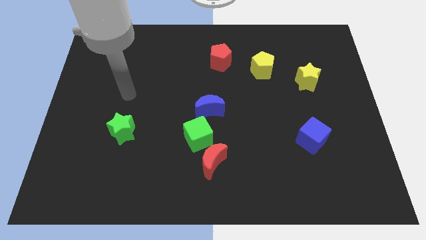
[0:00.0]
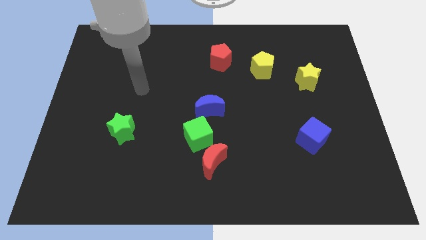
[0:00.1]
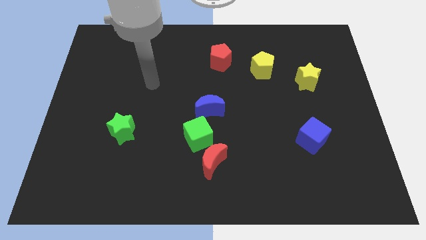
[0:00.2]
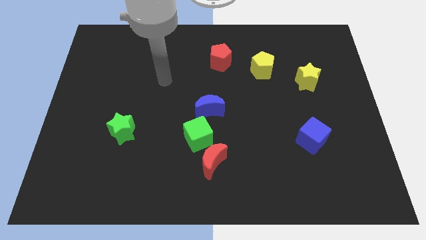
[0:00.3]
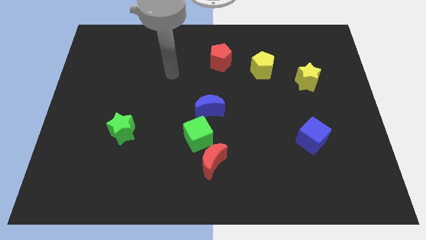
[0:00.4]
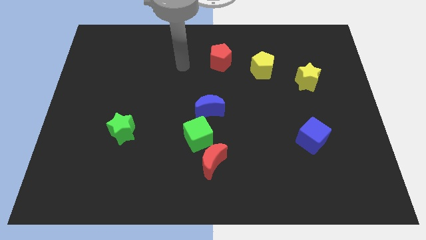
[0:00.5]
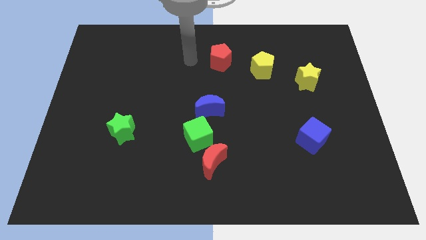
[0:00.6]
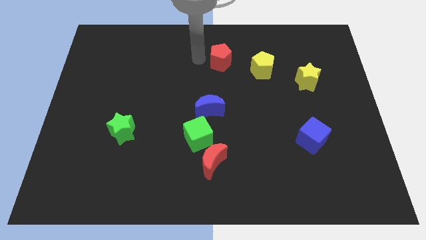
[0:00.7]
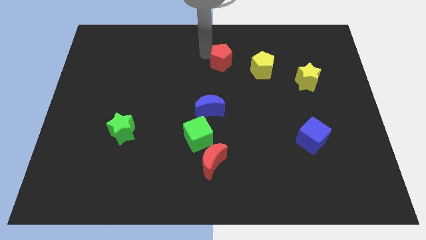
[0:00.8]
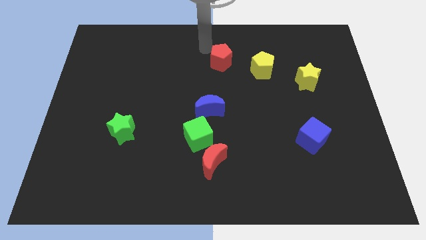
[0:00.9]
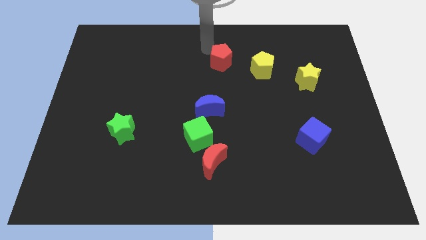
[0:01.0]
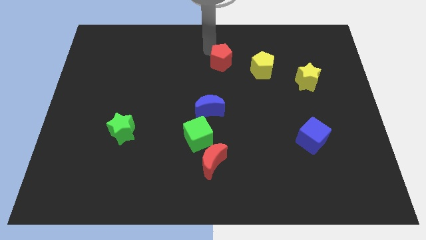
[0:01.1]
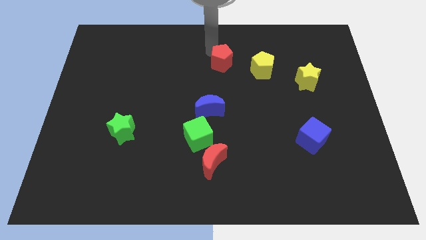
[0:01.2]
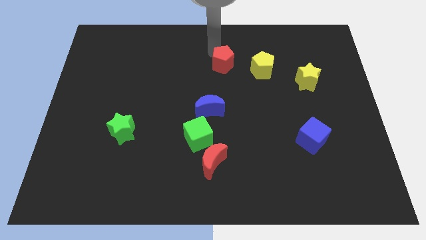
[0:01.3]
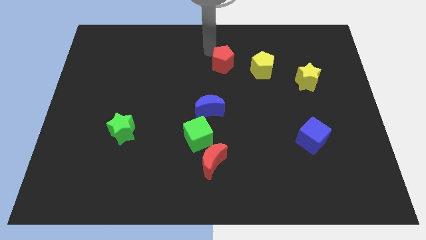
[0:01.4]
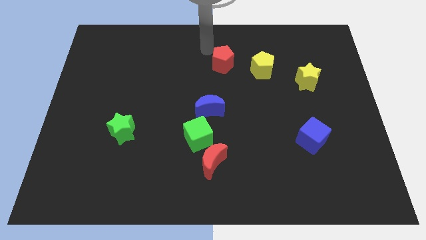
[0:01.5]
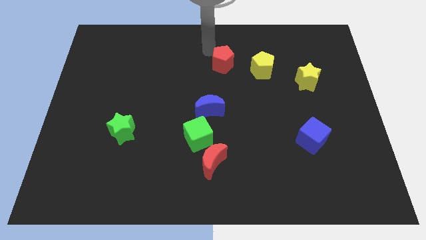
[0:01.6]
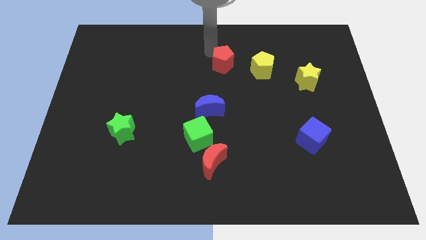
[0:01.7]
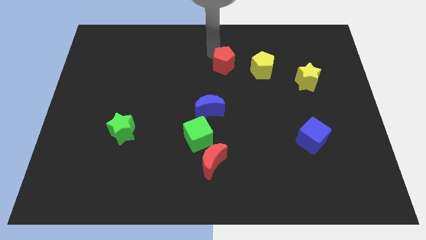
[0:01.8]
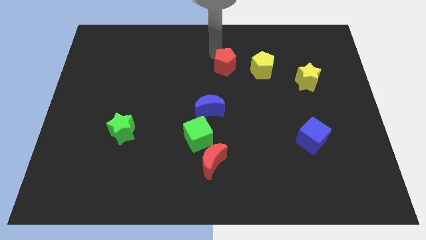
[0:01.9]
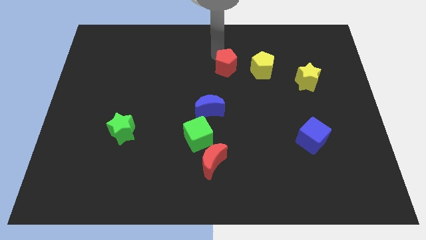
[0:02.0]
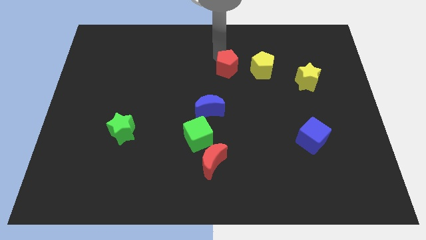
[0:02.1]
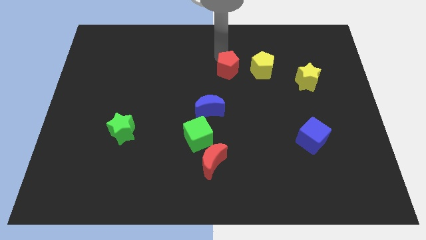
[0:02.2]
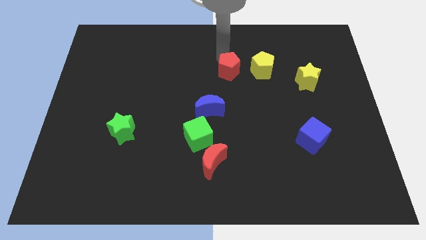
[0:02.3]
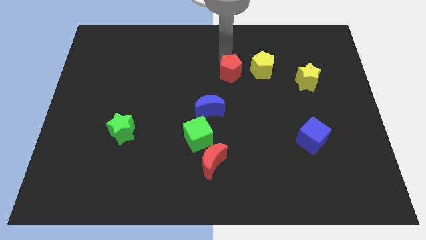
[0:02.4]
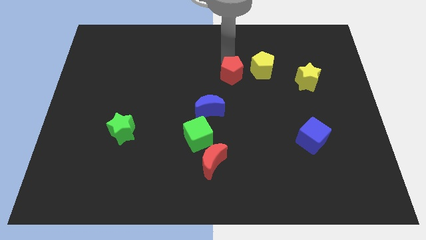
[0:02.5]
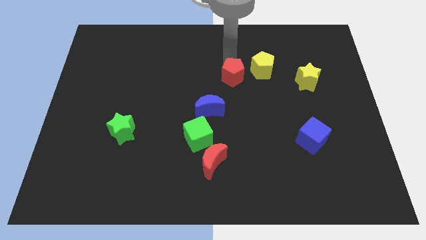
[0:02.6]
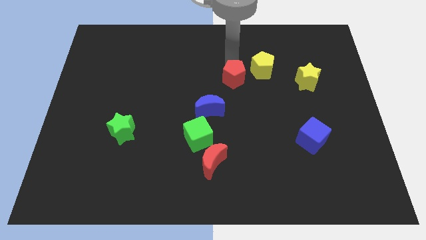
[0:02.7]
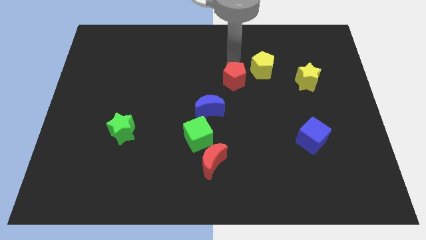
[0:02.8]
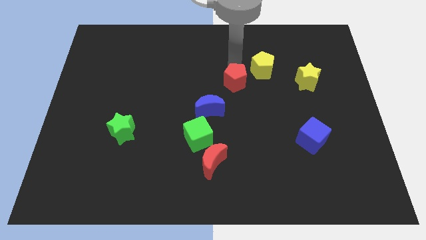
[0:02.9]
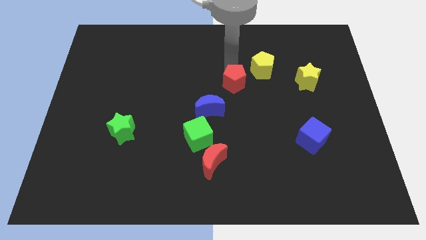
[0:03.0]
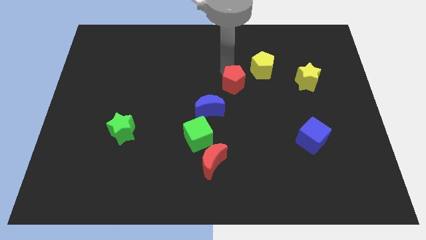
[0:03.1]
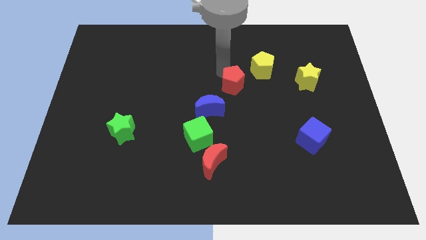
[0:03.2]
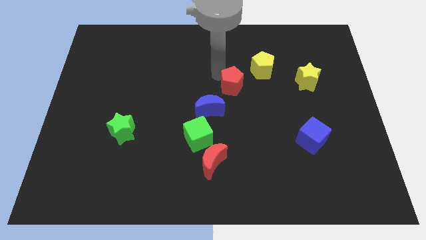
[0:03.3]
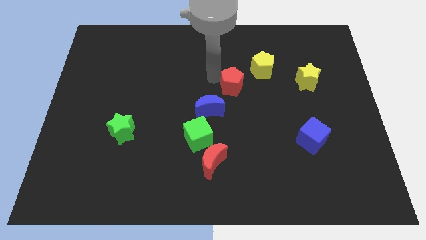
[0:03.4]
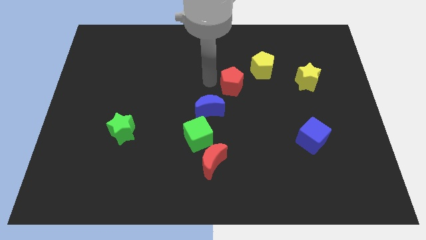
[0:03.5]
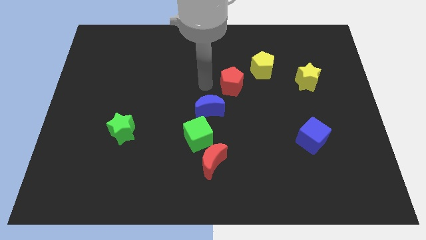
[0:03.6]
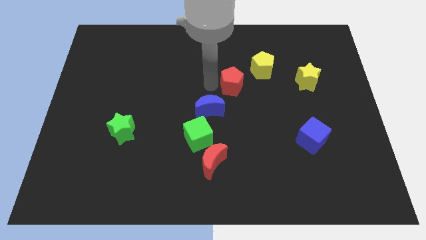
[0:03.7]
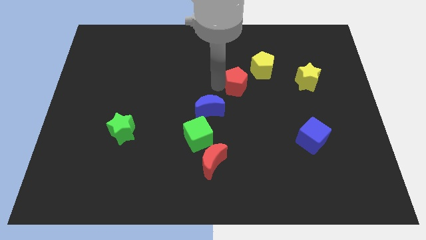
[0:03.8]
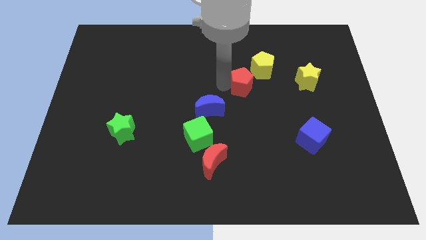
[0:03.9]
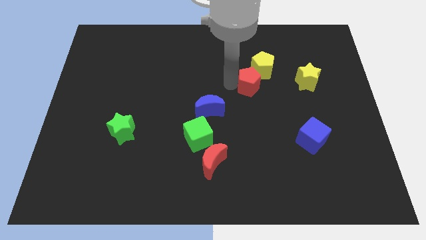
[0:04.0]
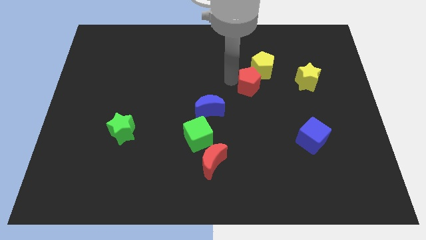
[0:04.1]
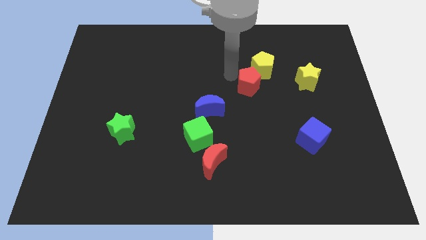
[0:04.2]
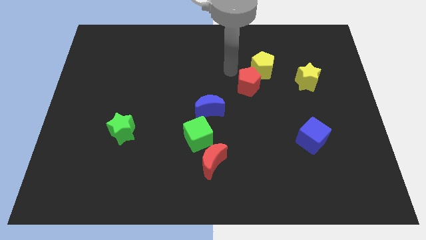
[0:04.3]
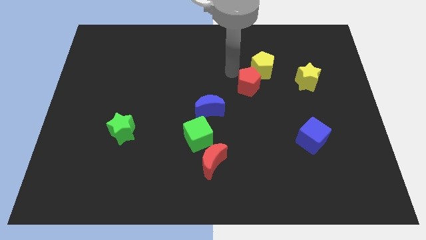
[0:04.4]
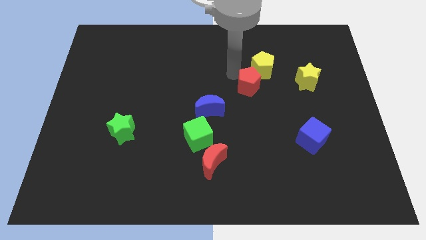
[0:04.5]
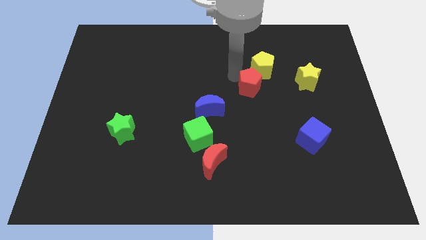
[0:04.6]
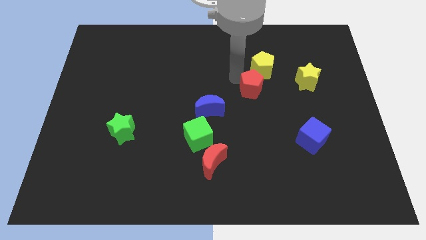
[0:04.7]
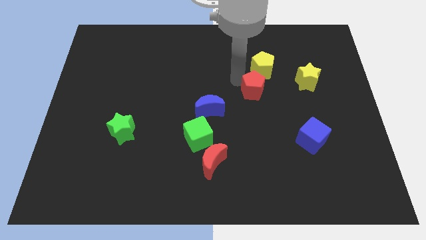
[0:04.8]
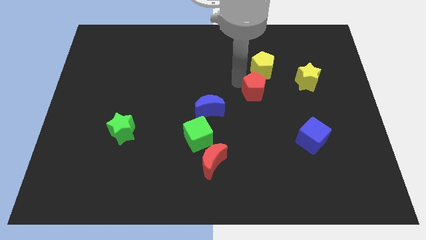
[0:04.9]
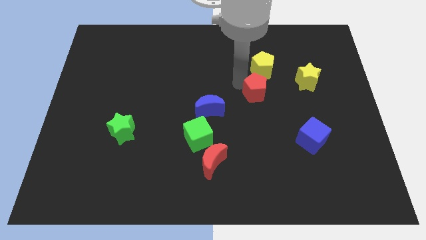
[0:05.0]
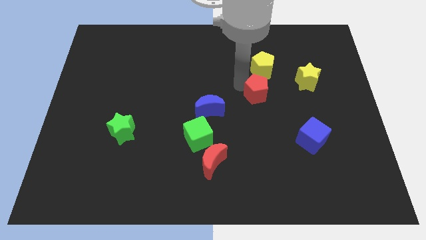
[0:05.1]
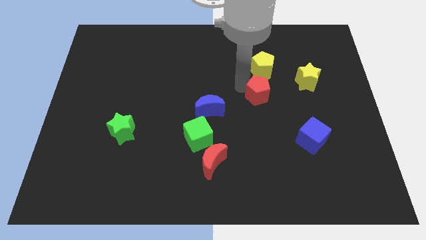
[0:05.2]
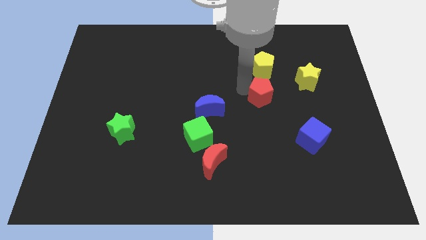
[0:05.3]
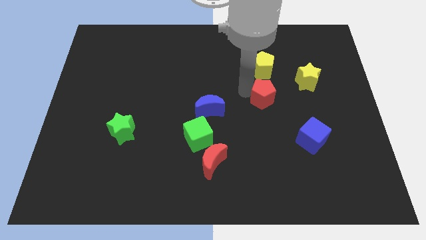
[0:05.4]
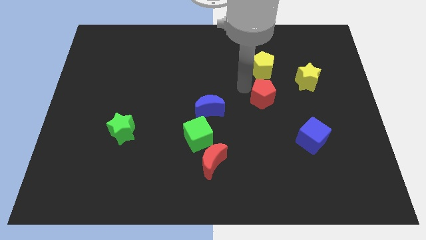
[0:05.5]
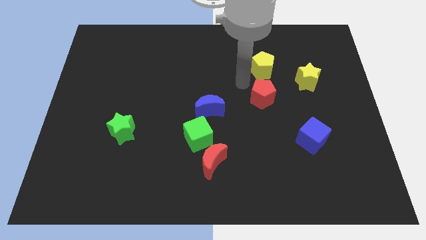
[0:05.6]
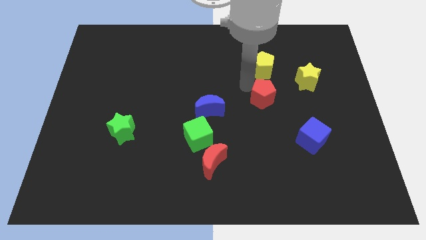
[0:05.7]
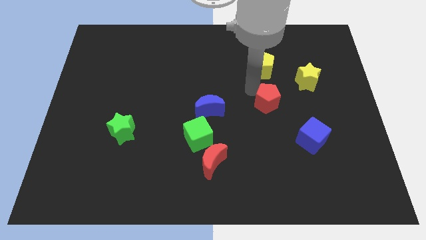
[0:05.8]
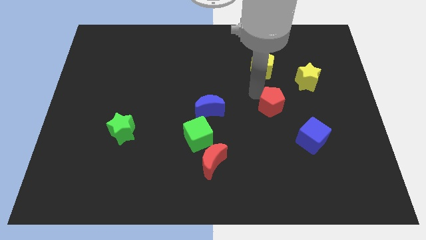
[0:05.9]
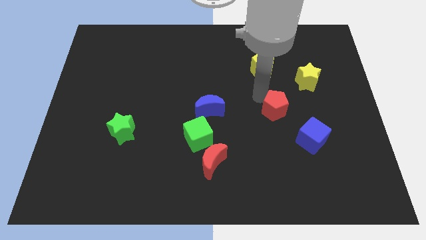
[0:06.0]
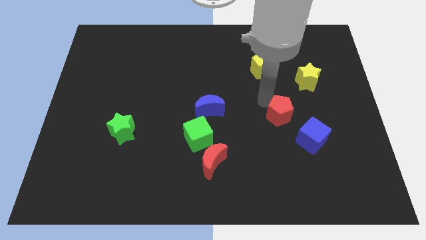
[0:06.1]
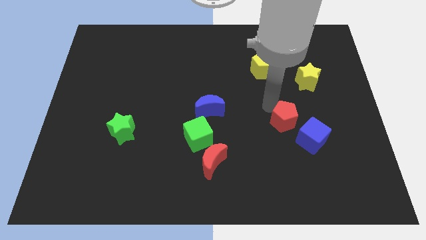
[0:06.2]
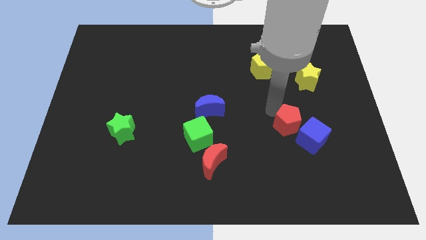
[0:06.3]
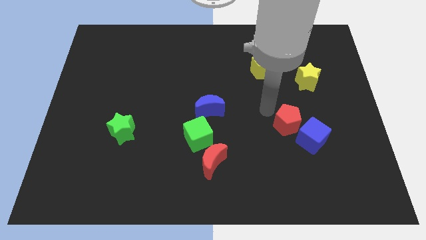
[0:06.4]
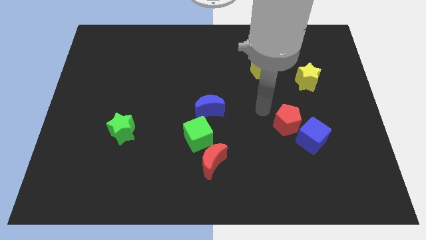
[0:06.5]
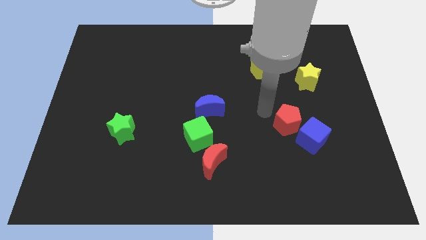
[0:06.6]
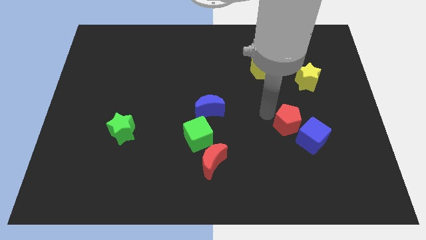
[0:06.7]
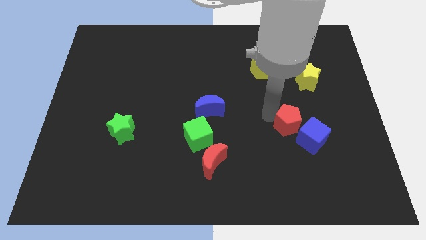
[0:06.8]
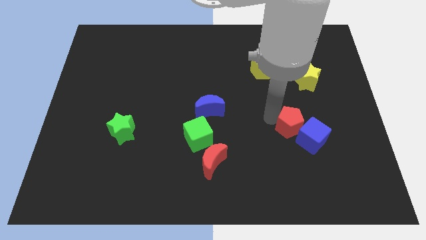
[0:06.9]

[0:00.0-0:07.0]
slide the red pentagon next to the blue cube
